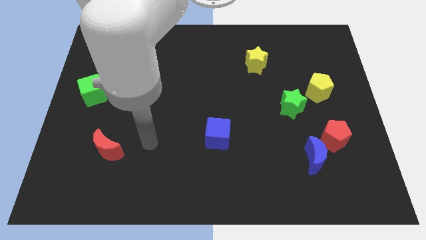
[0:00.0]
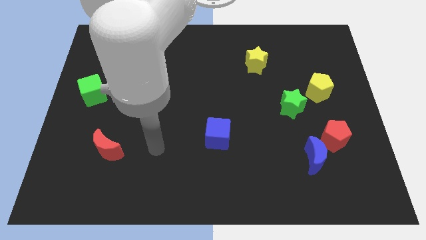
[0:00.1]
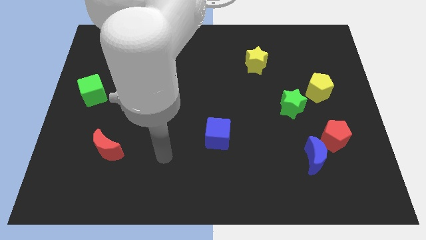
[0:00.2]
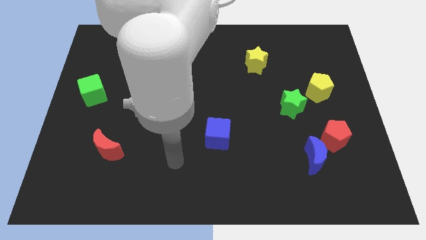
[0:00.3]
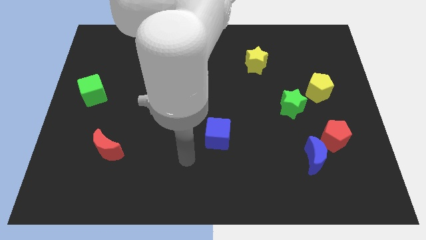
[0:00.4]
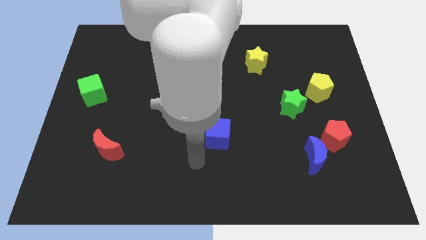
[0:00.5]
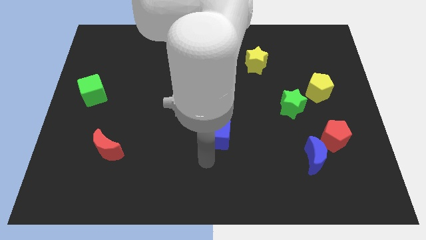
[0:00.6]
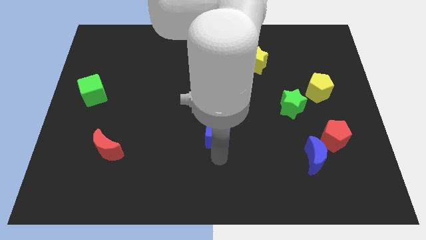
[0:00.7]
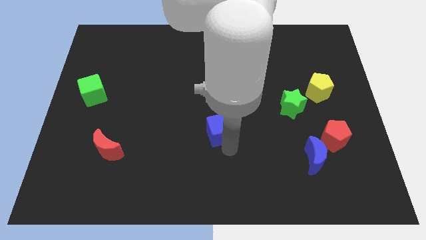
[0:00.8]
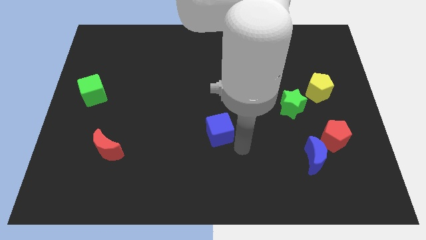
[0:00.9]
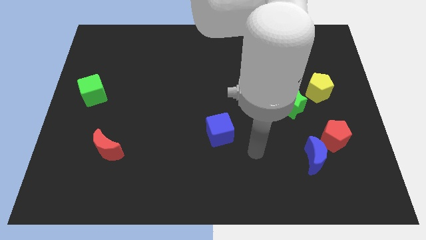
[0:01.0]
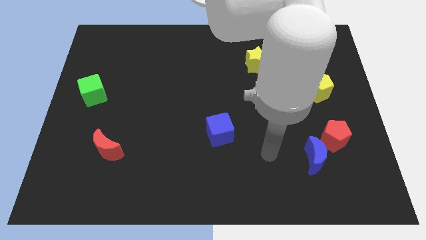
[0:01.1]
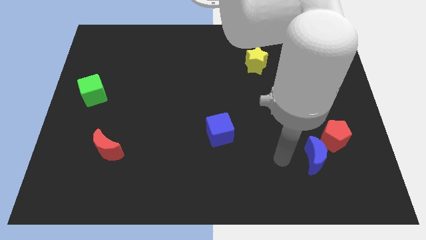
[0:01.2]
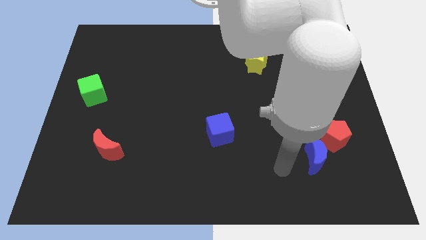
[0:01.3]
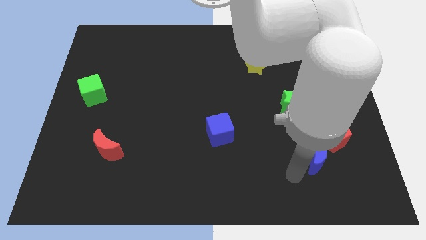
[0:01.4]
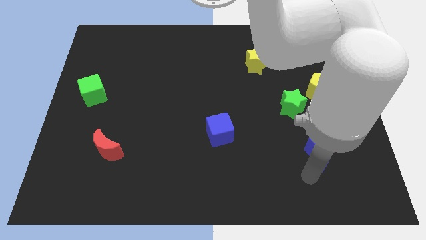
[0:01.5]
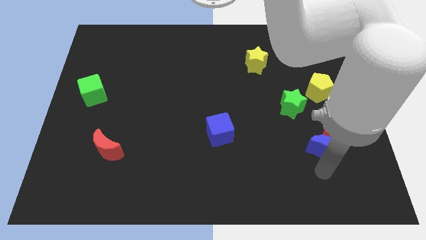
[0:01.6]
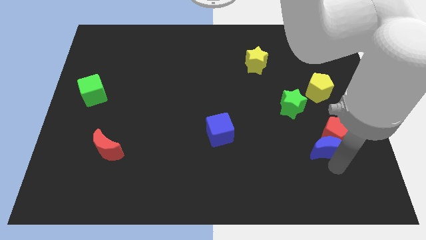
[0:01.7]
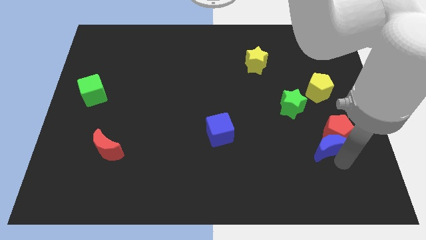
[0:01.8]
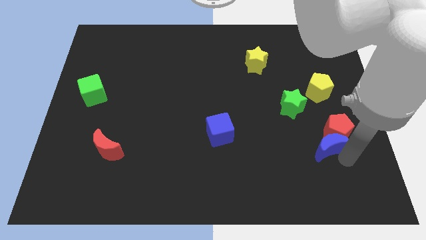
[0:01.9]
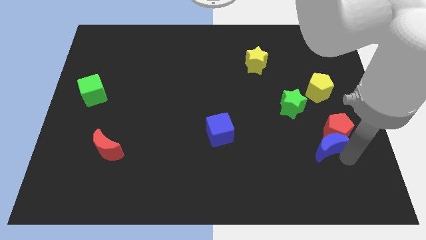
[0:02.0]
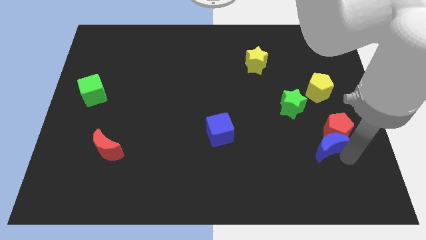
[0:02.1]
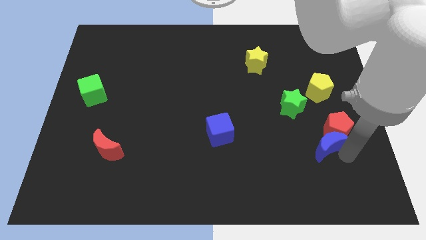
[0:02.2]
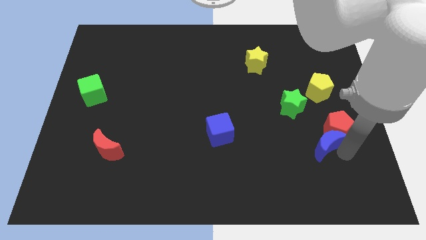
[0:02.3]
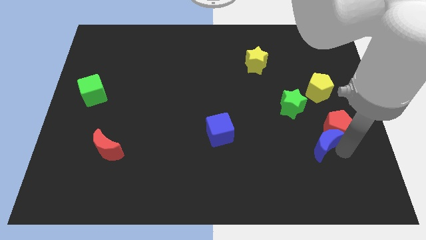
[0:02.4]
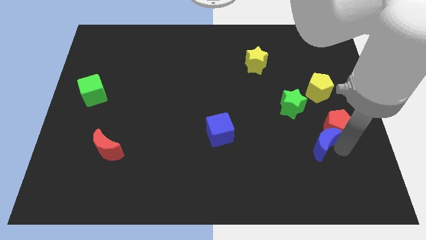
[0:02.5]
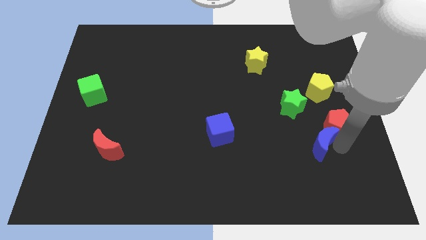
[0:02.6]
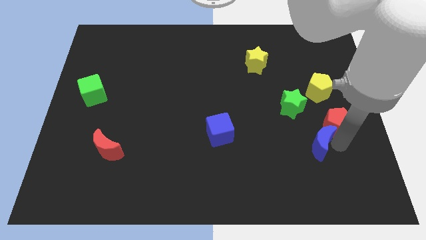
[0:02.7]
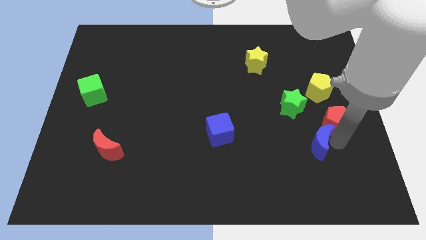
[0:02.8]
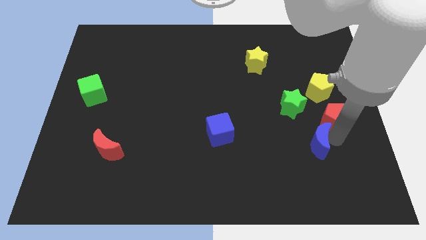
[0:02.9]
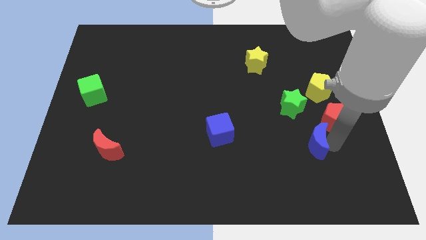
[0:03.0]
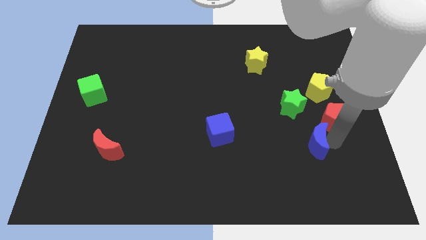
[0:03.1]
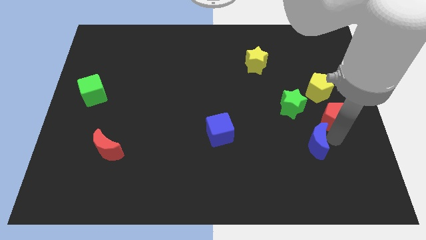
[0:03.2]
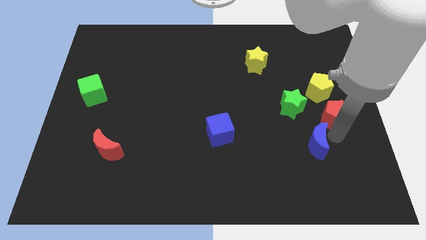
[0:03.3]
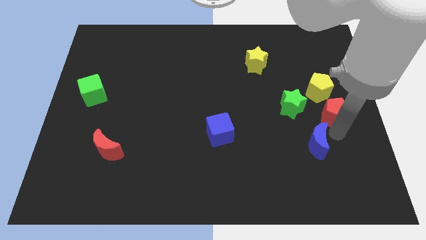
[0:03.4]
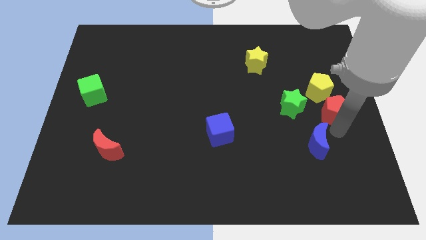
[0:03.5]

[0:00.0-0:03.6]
slightly slide the red pentagon up

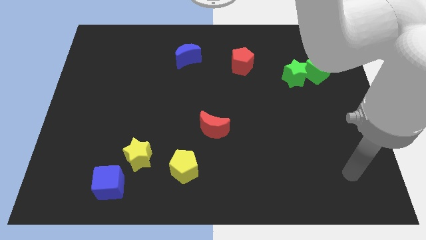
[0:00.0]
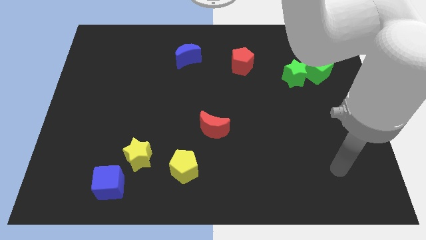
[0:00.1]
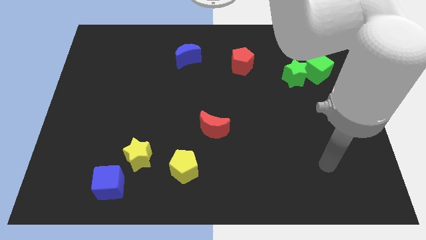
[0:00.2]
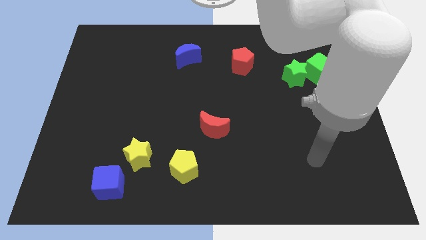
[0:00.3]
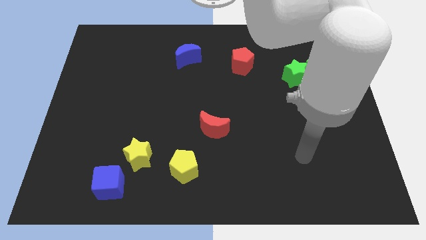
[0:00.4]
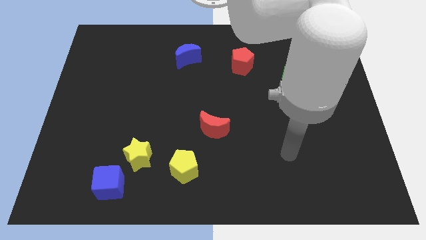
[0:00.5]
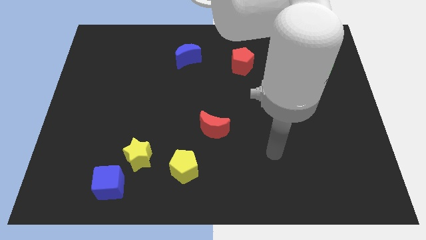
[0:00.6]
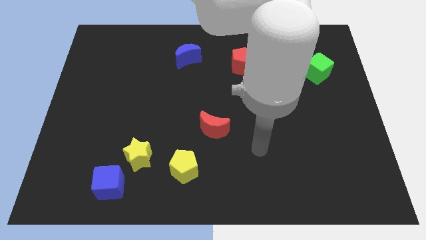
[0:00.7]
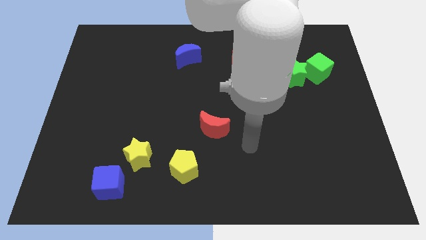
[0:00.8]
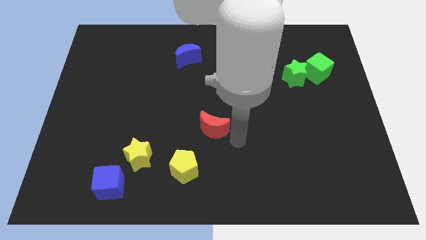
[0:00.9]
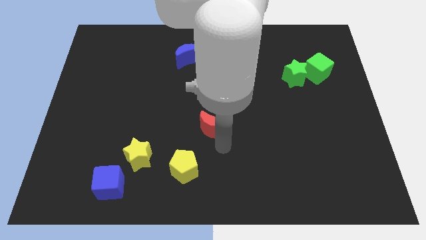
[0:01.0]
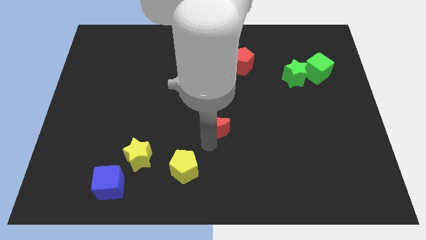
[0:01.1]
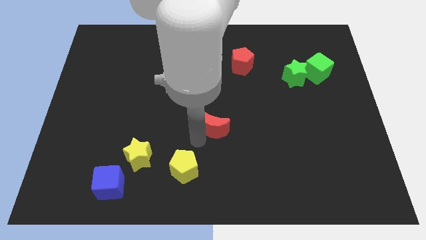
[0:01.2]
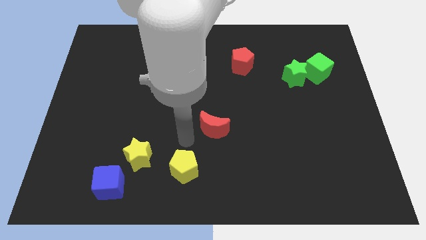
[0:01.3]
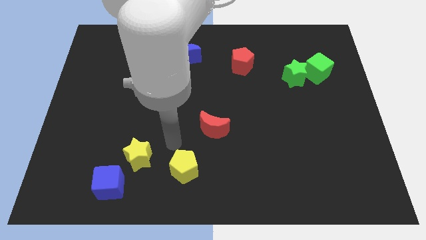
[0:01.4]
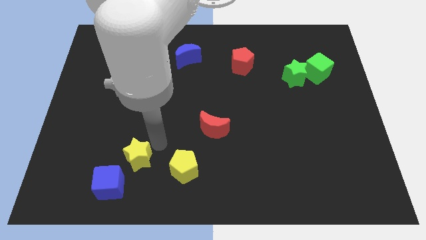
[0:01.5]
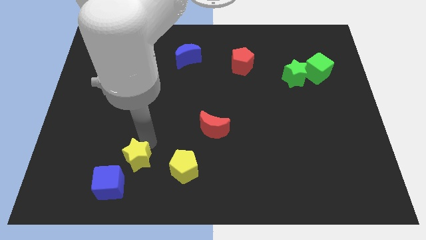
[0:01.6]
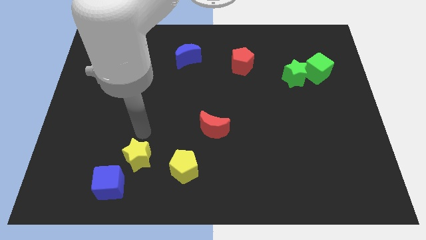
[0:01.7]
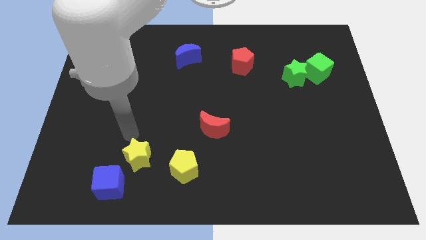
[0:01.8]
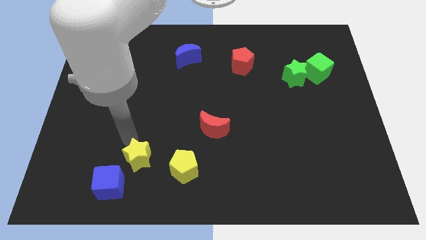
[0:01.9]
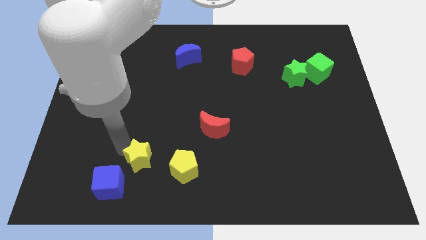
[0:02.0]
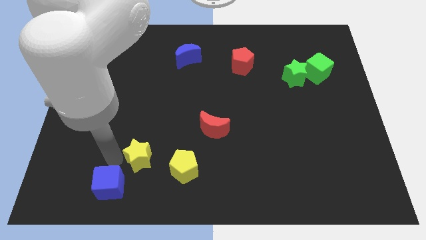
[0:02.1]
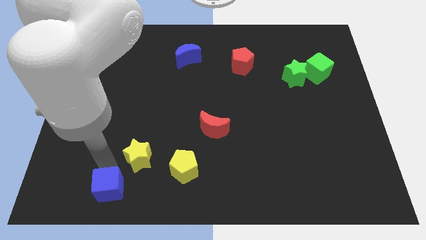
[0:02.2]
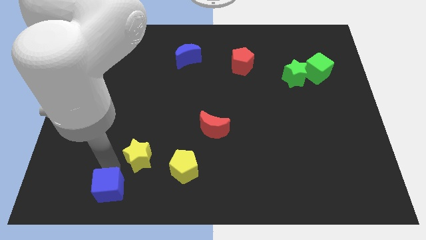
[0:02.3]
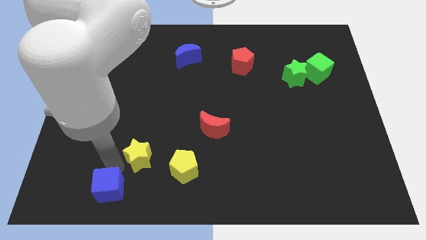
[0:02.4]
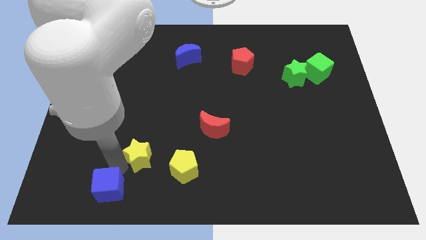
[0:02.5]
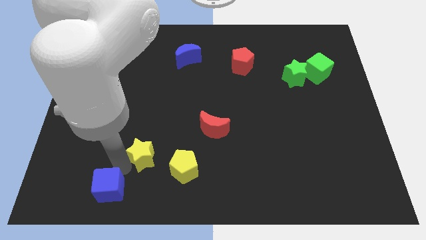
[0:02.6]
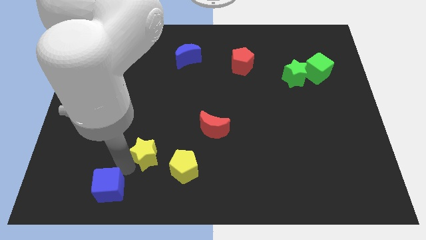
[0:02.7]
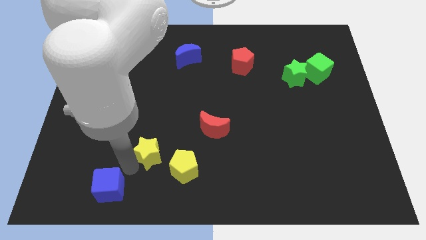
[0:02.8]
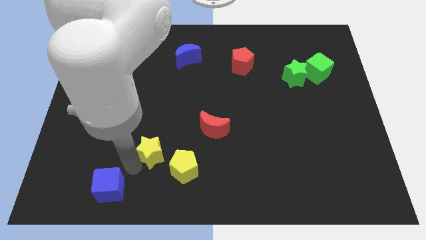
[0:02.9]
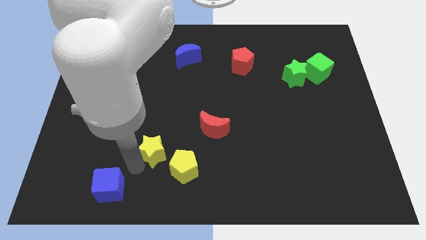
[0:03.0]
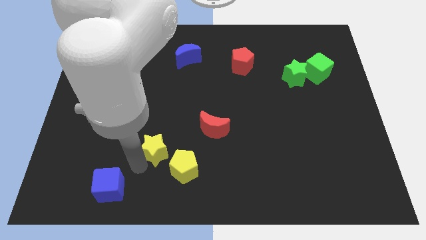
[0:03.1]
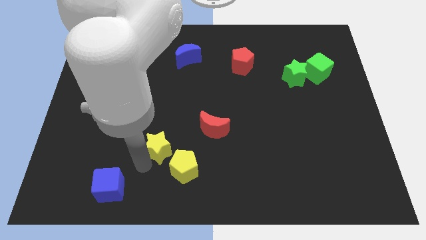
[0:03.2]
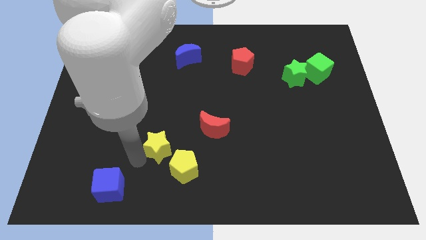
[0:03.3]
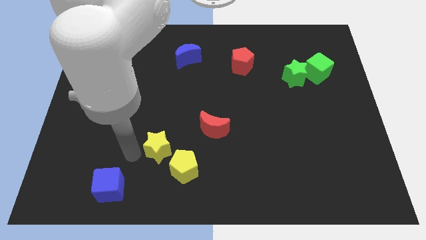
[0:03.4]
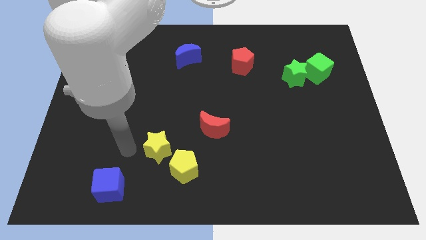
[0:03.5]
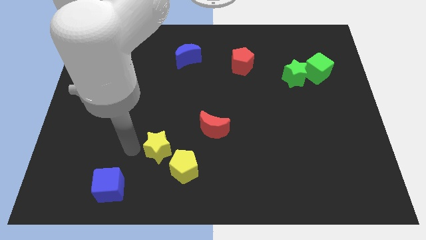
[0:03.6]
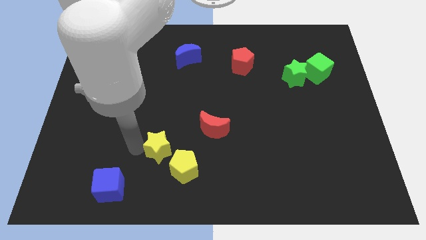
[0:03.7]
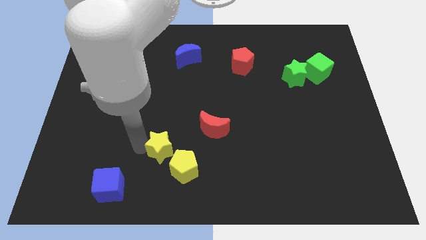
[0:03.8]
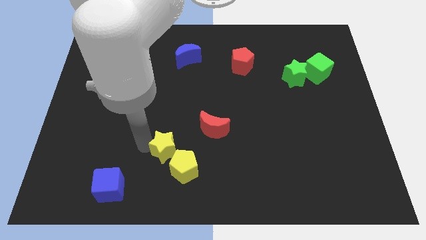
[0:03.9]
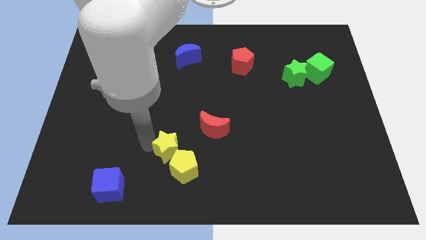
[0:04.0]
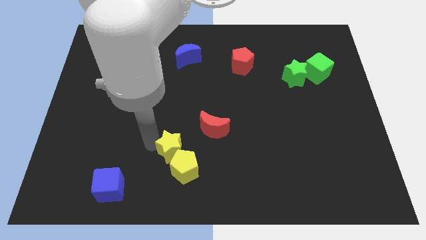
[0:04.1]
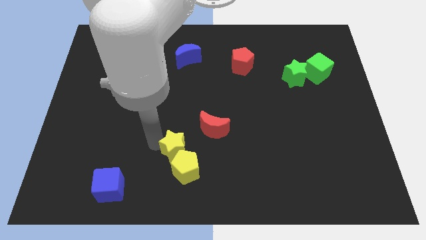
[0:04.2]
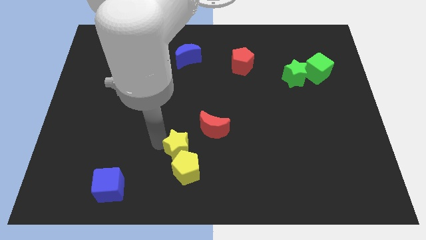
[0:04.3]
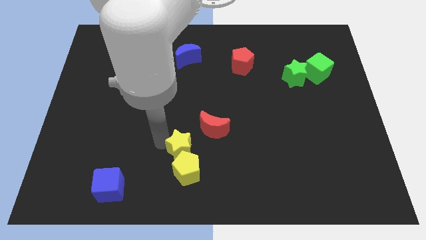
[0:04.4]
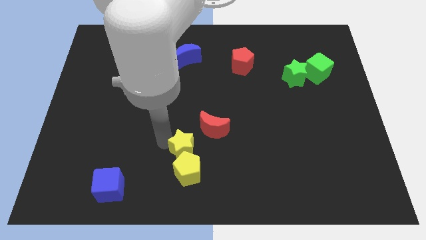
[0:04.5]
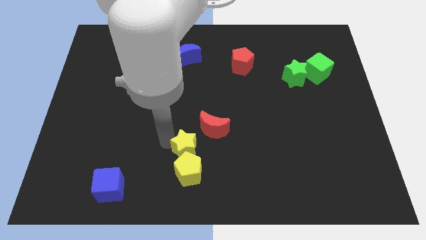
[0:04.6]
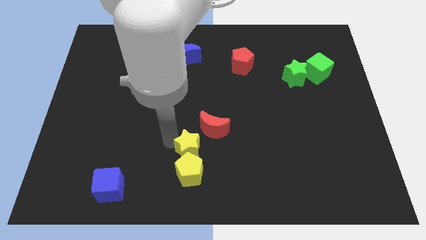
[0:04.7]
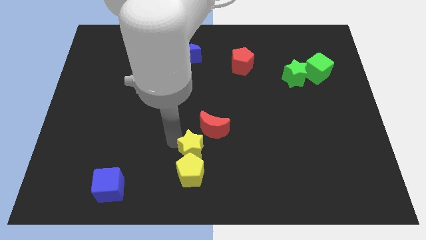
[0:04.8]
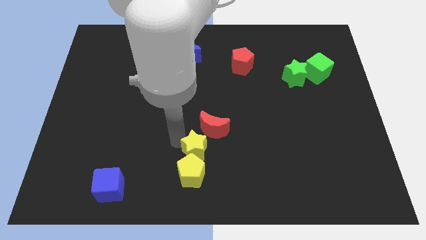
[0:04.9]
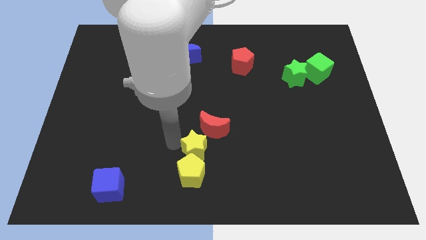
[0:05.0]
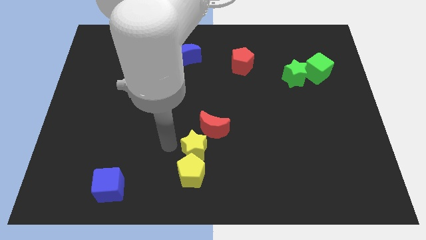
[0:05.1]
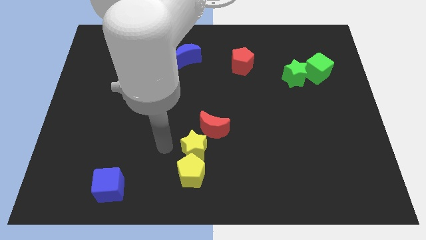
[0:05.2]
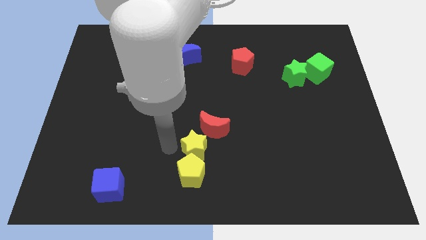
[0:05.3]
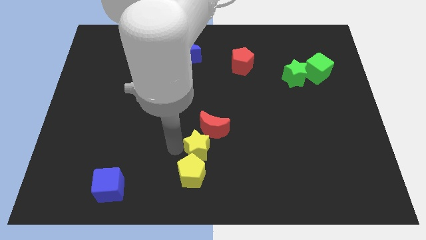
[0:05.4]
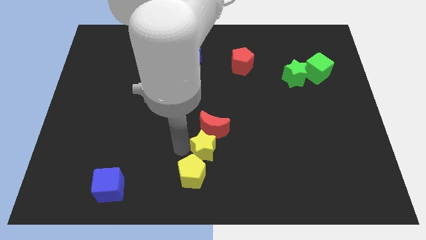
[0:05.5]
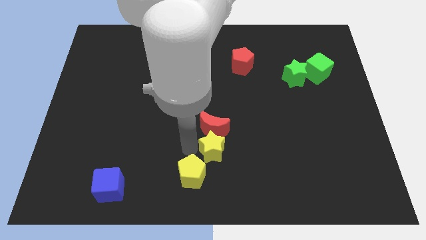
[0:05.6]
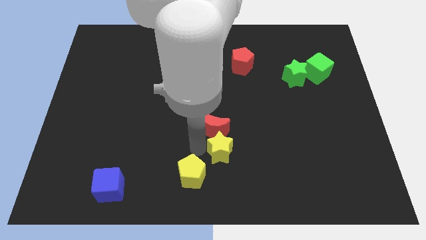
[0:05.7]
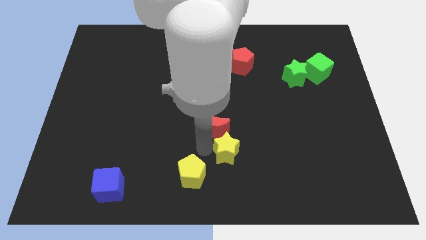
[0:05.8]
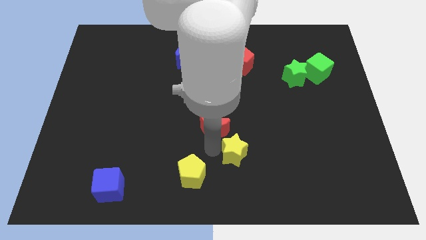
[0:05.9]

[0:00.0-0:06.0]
slide the yellow star to the right
